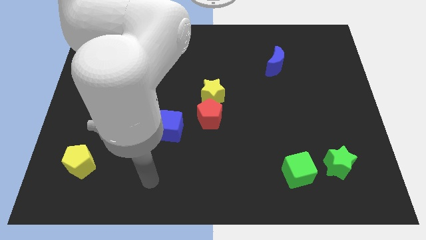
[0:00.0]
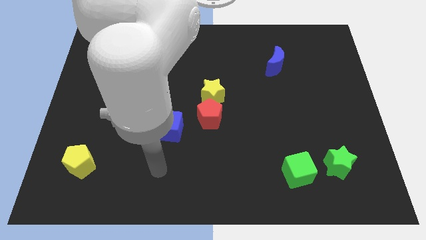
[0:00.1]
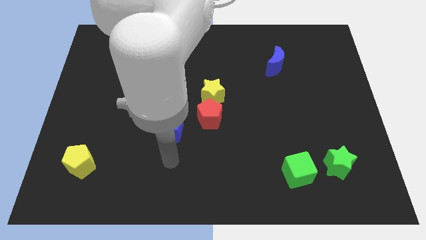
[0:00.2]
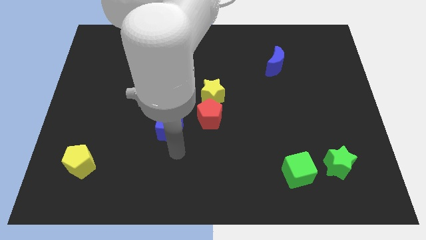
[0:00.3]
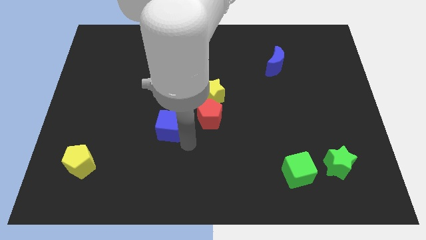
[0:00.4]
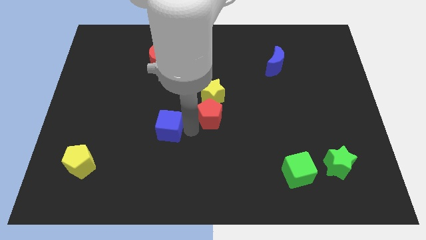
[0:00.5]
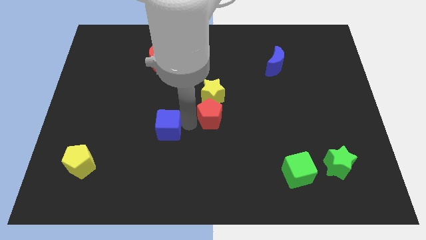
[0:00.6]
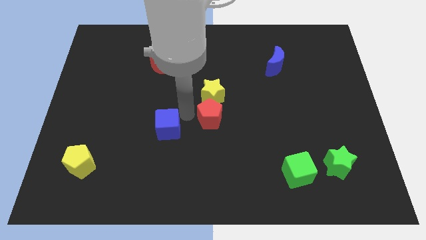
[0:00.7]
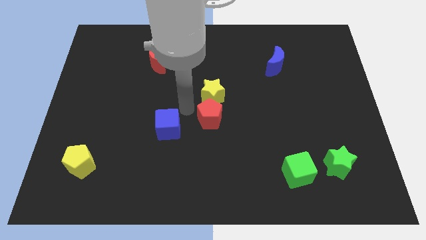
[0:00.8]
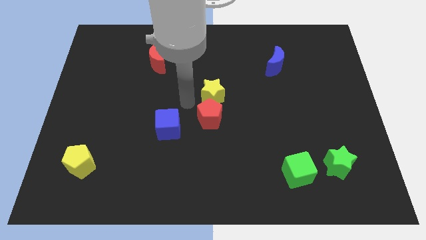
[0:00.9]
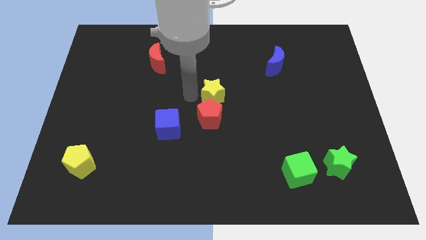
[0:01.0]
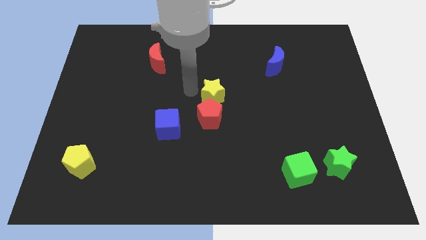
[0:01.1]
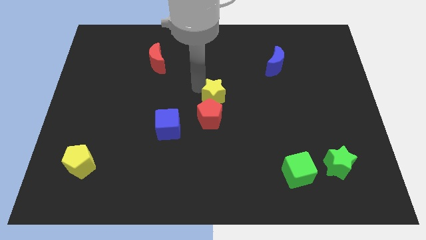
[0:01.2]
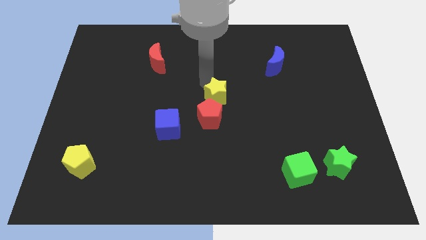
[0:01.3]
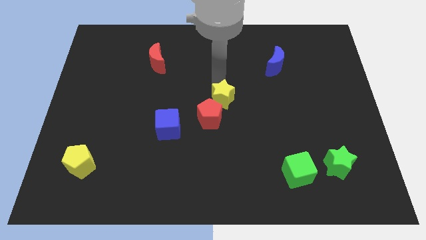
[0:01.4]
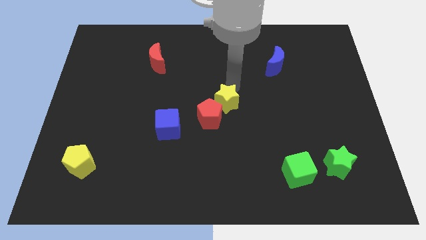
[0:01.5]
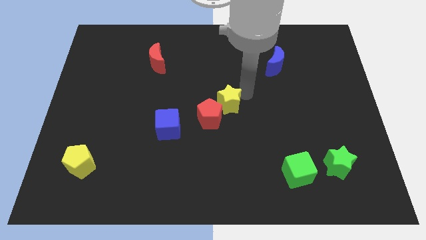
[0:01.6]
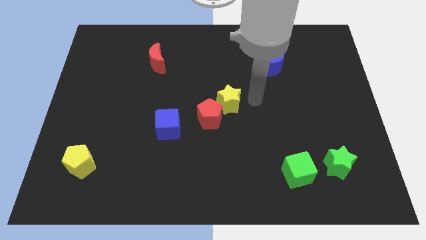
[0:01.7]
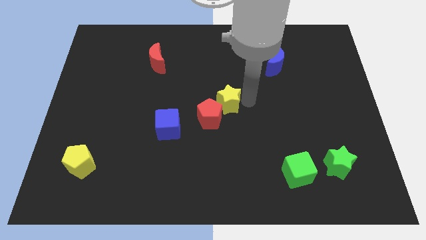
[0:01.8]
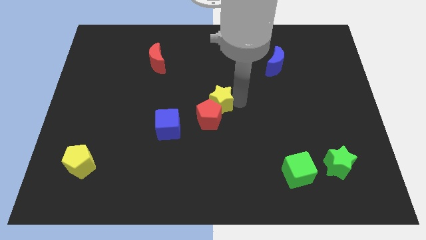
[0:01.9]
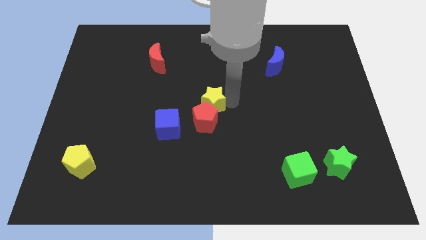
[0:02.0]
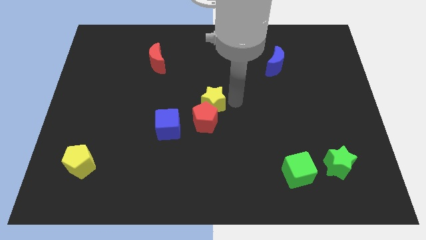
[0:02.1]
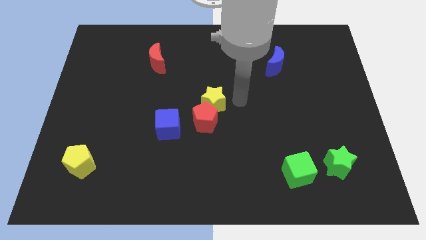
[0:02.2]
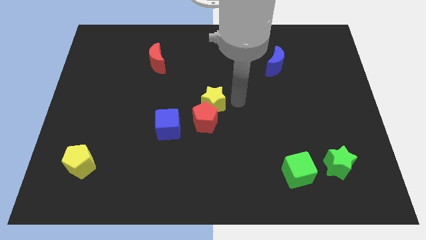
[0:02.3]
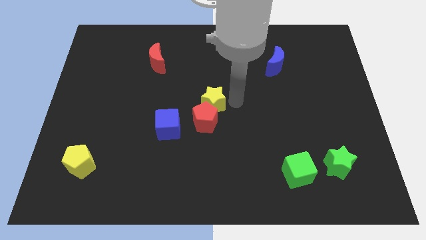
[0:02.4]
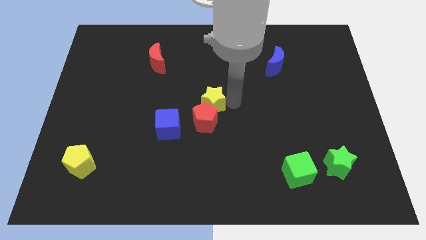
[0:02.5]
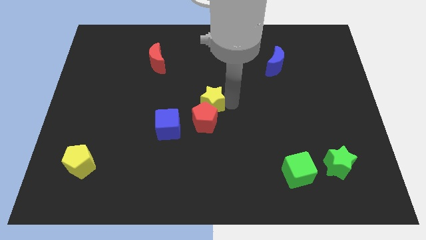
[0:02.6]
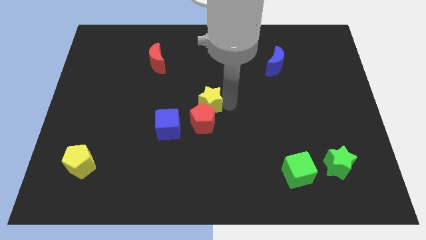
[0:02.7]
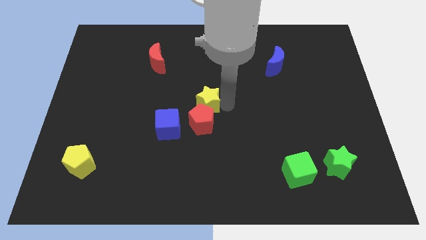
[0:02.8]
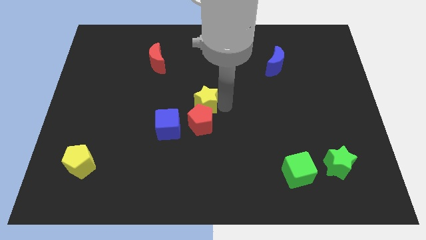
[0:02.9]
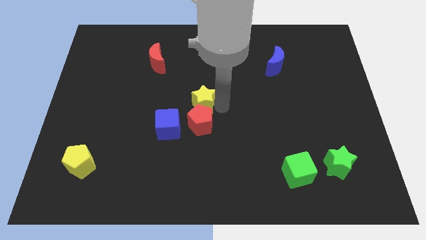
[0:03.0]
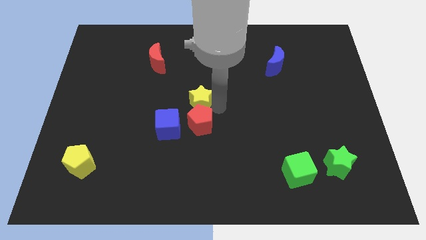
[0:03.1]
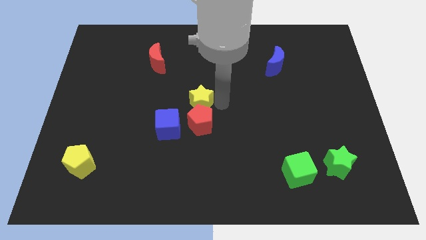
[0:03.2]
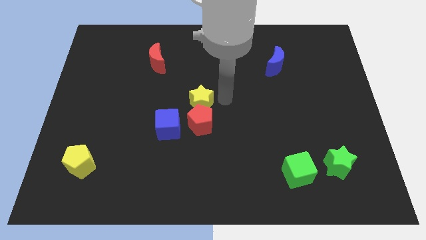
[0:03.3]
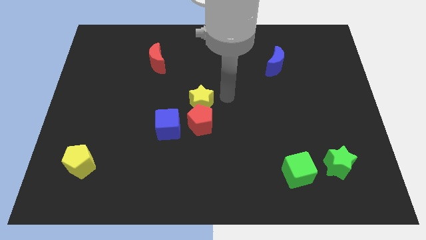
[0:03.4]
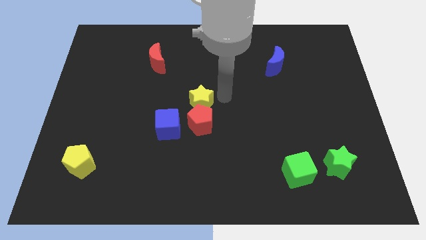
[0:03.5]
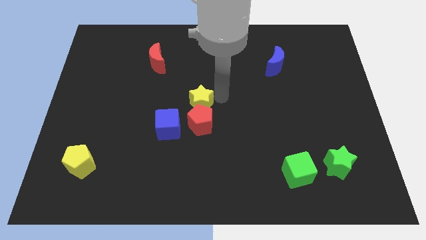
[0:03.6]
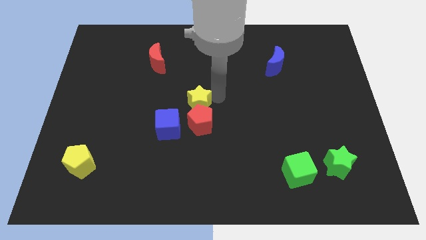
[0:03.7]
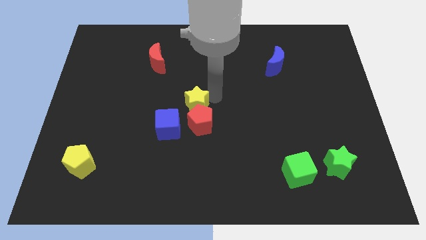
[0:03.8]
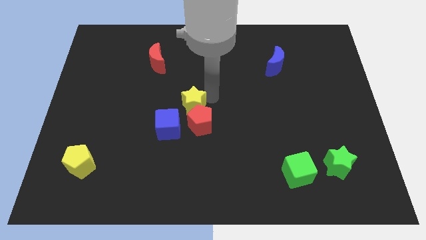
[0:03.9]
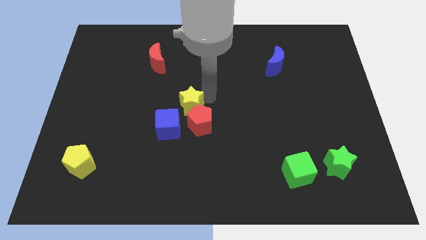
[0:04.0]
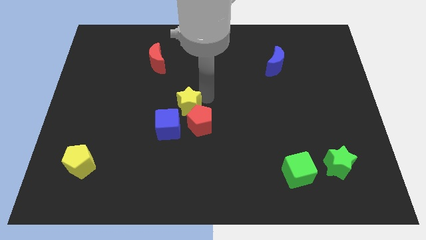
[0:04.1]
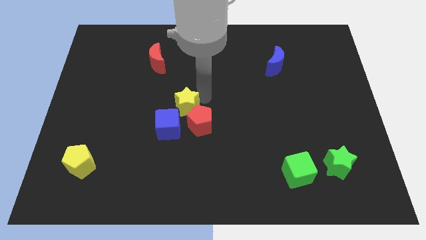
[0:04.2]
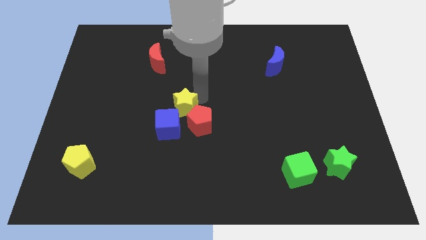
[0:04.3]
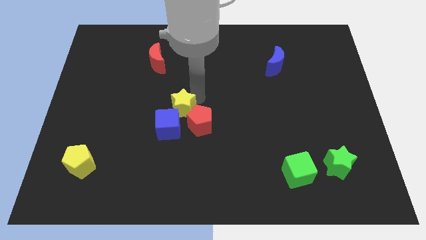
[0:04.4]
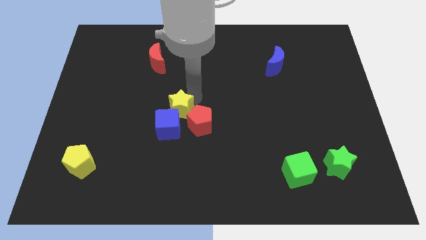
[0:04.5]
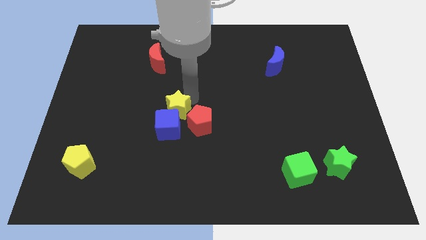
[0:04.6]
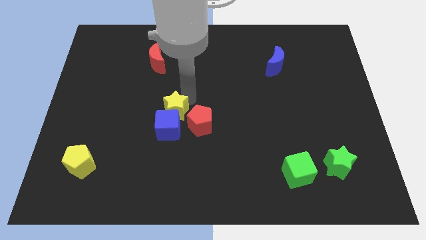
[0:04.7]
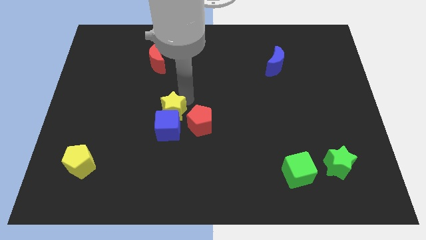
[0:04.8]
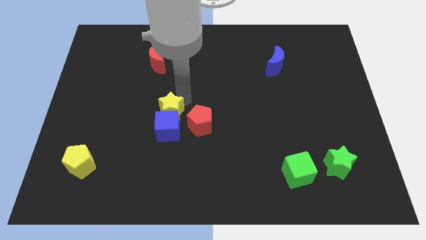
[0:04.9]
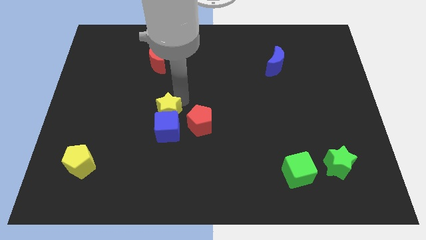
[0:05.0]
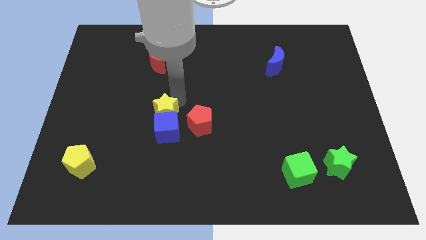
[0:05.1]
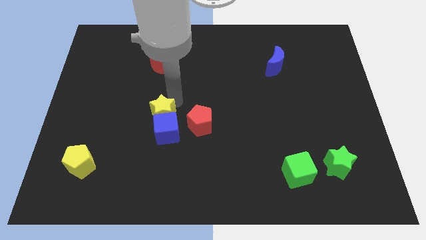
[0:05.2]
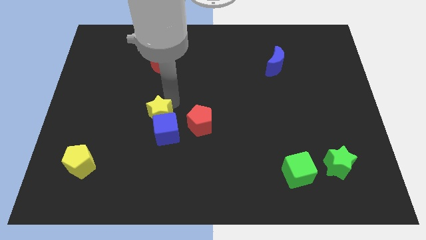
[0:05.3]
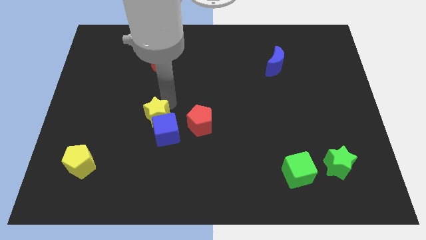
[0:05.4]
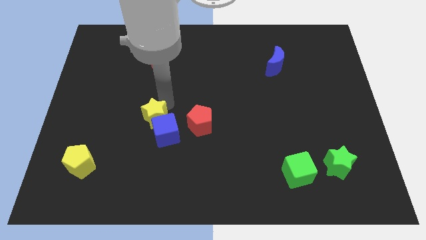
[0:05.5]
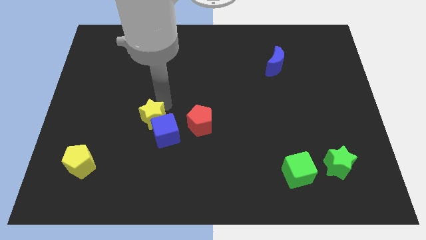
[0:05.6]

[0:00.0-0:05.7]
put the yellow star to the left side of the blue cube
